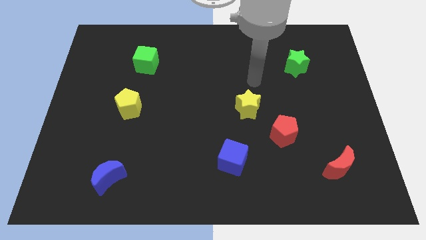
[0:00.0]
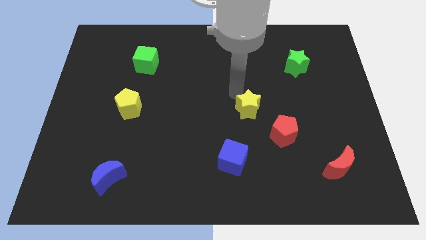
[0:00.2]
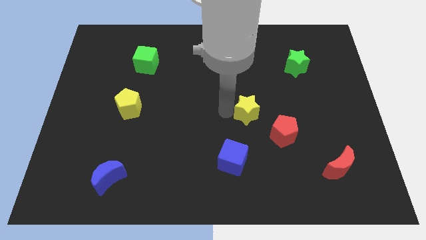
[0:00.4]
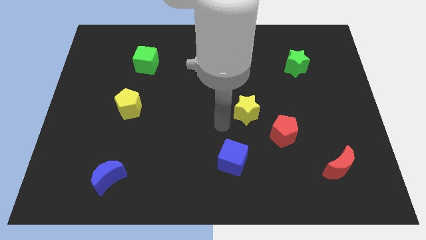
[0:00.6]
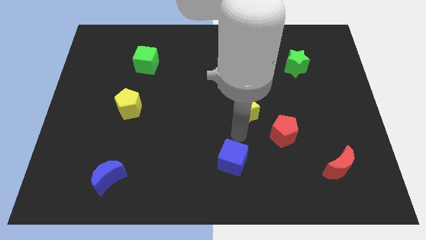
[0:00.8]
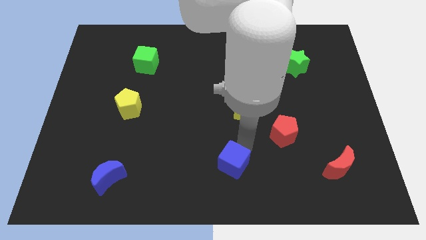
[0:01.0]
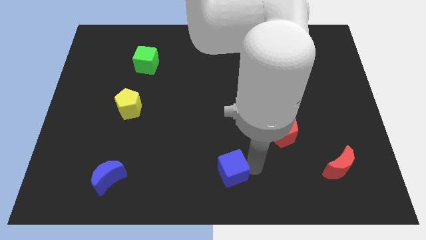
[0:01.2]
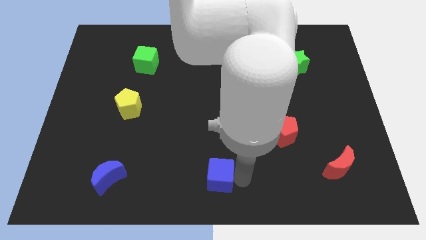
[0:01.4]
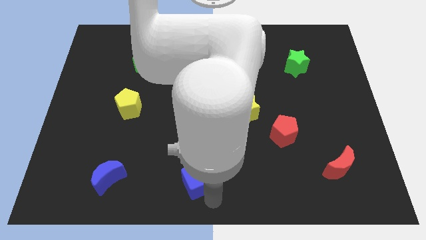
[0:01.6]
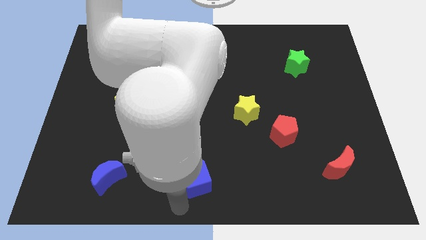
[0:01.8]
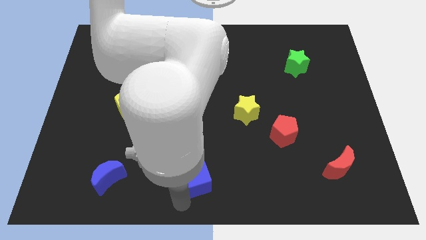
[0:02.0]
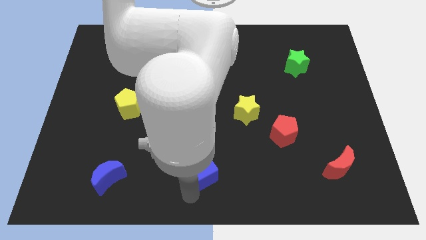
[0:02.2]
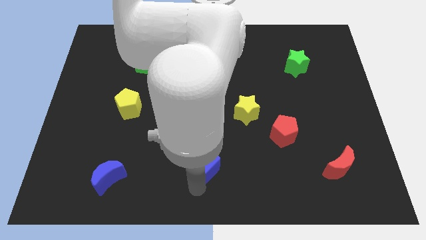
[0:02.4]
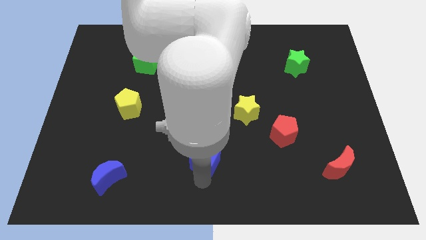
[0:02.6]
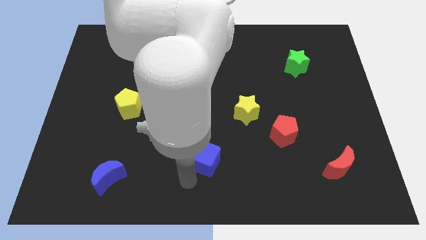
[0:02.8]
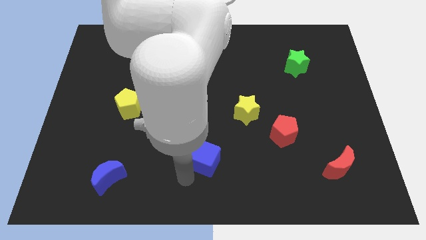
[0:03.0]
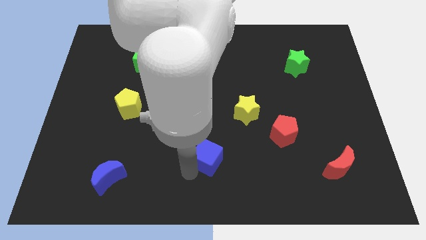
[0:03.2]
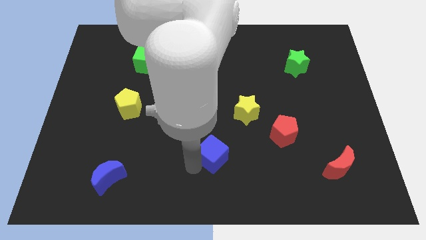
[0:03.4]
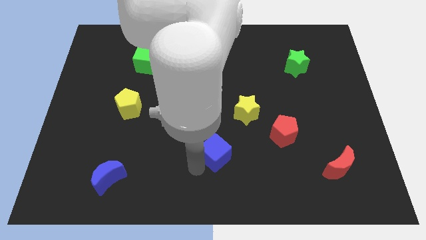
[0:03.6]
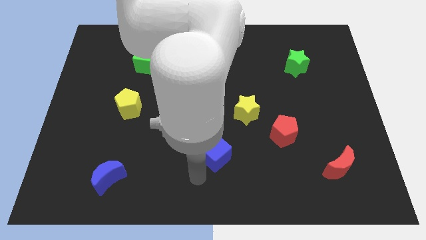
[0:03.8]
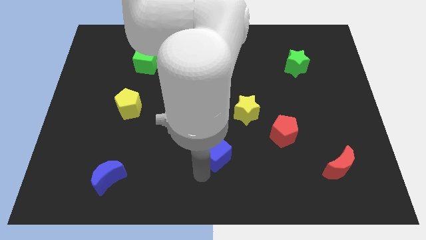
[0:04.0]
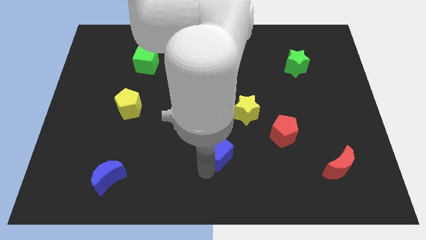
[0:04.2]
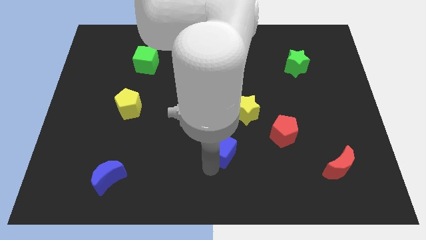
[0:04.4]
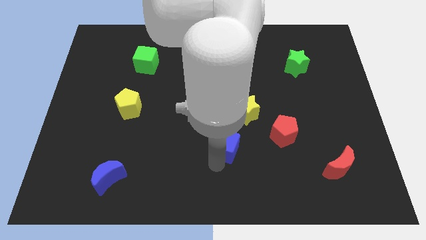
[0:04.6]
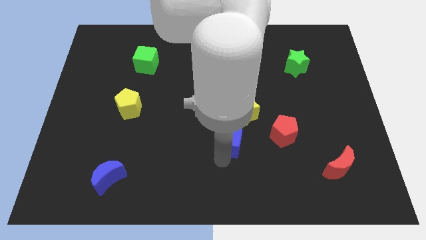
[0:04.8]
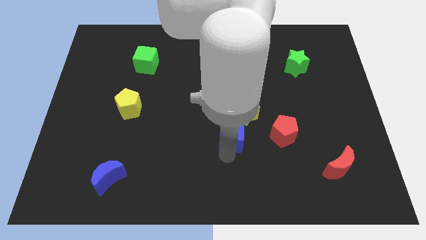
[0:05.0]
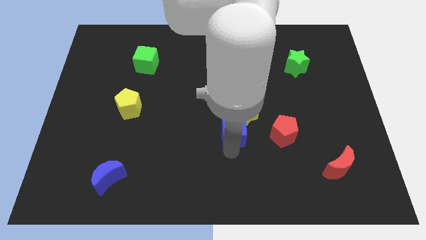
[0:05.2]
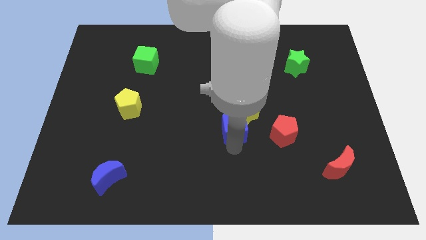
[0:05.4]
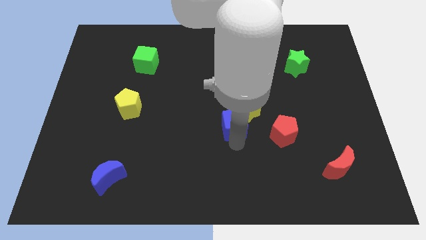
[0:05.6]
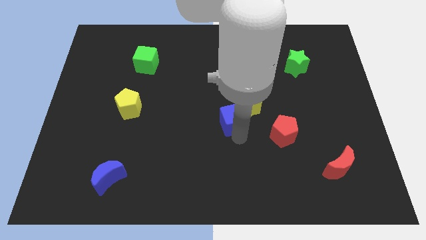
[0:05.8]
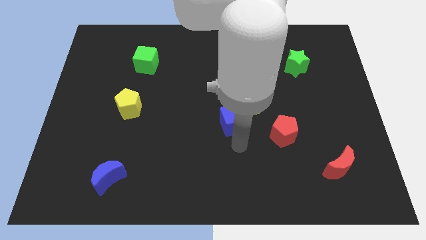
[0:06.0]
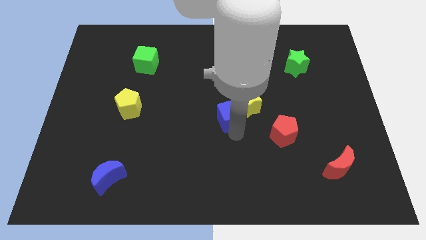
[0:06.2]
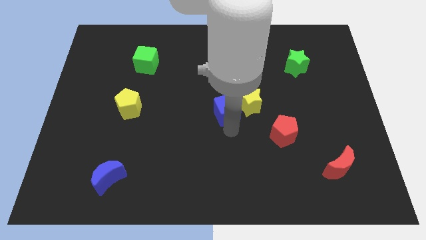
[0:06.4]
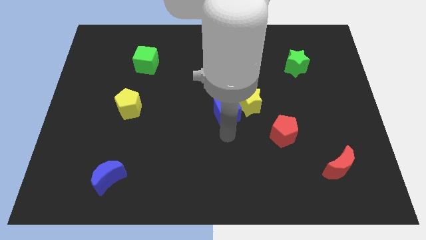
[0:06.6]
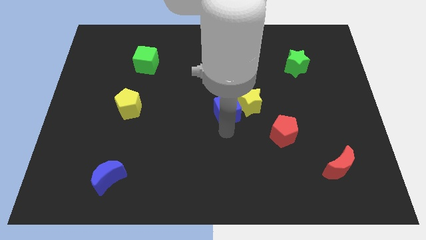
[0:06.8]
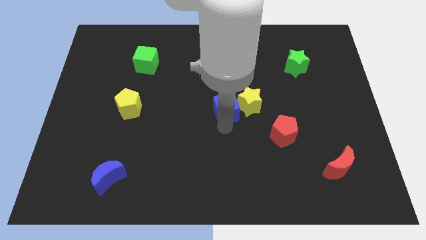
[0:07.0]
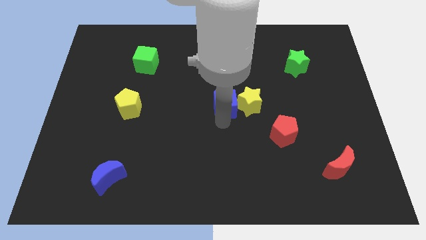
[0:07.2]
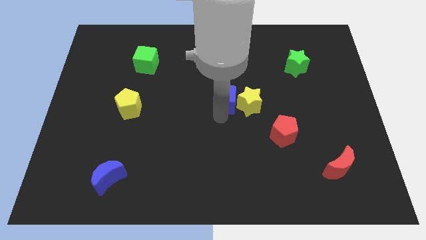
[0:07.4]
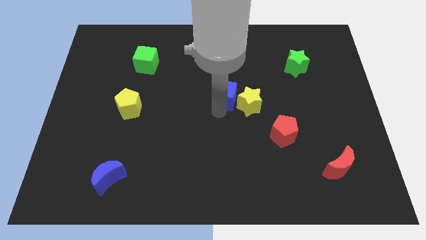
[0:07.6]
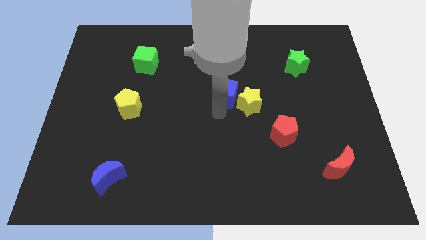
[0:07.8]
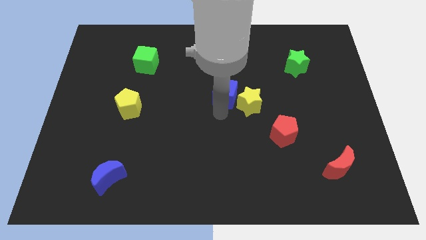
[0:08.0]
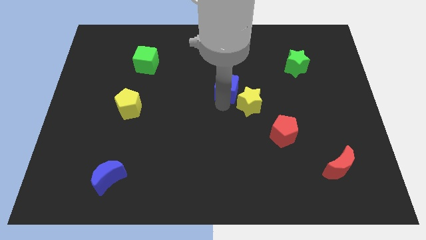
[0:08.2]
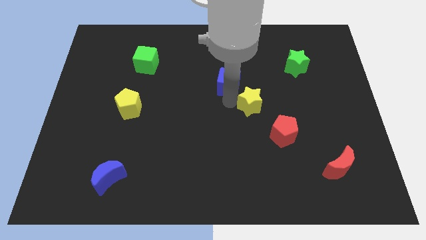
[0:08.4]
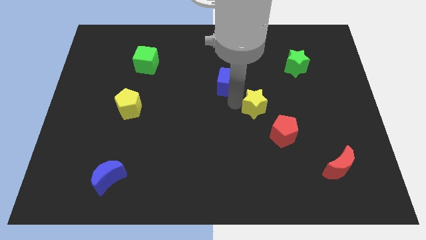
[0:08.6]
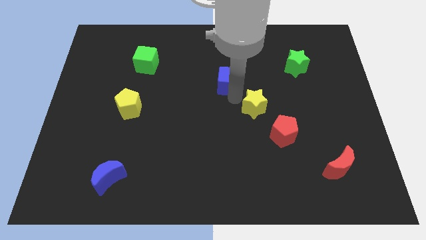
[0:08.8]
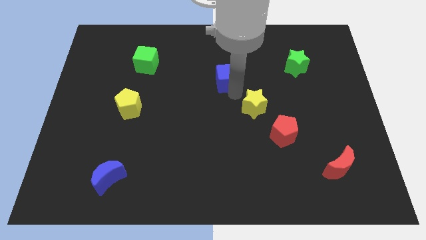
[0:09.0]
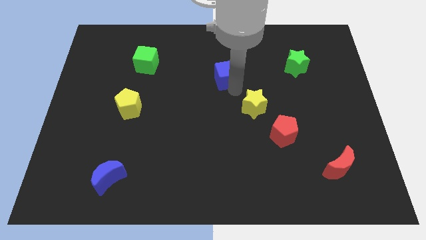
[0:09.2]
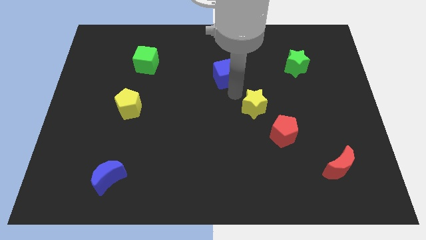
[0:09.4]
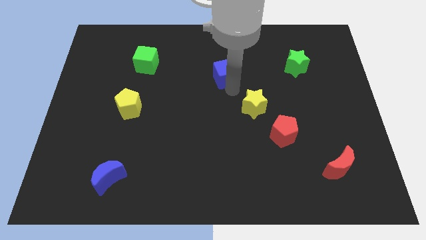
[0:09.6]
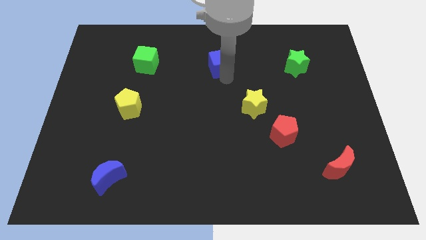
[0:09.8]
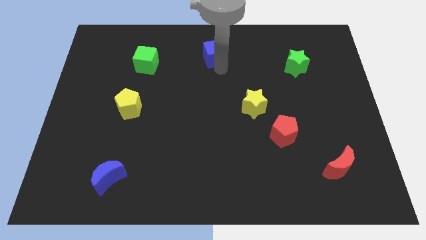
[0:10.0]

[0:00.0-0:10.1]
slide the blue cube to the top

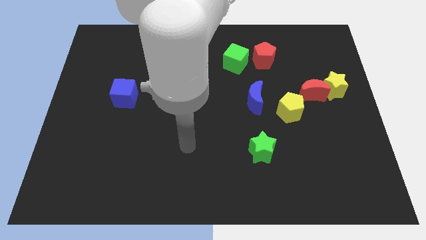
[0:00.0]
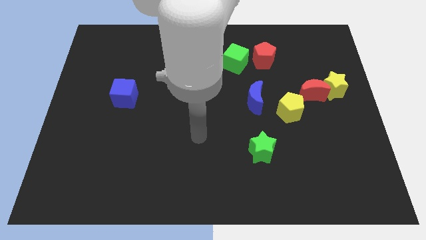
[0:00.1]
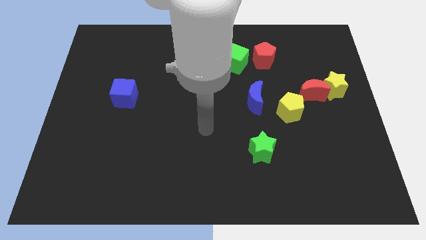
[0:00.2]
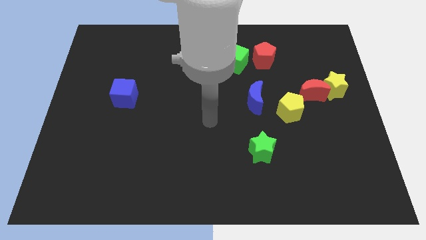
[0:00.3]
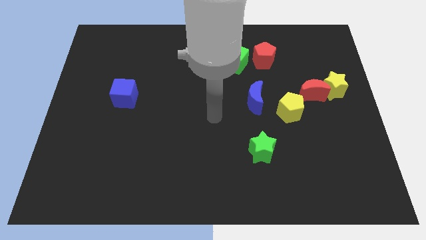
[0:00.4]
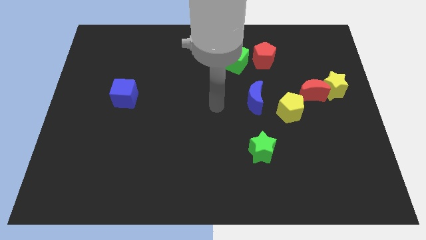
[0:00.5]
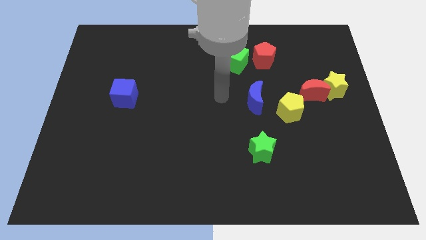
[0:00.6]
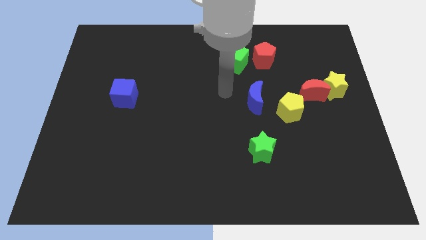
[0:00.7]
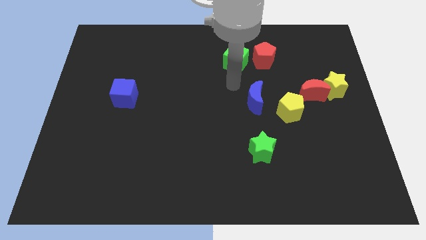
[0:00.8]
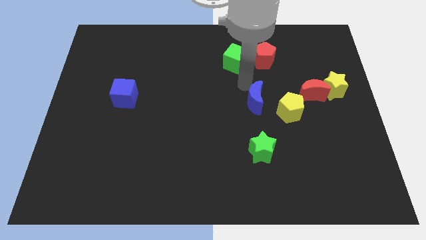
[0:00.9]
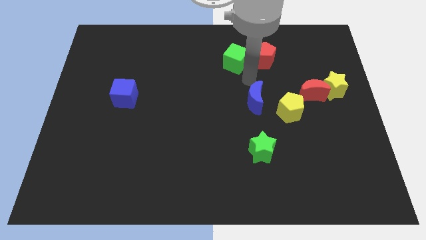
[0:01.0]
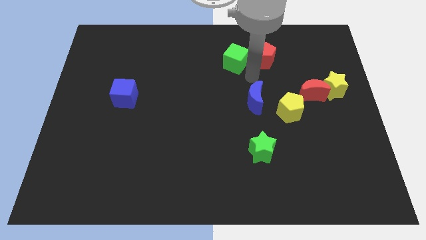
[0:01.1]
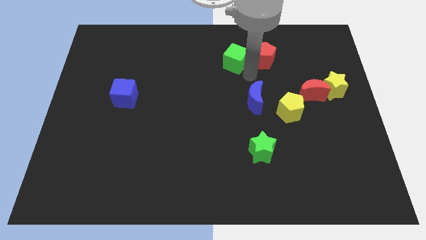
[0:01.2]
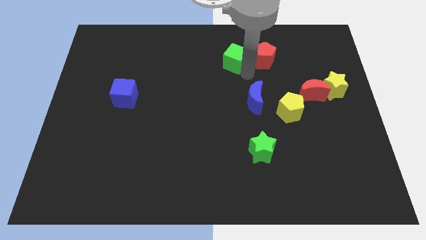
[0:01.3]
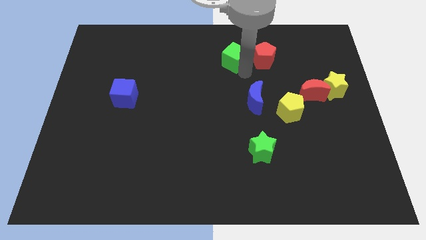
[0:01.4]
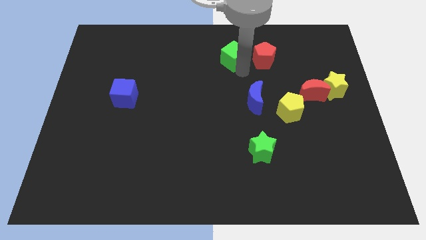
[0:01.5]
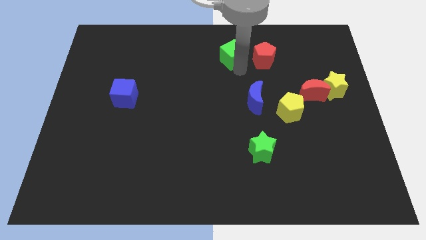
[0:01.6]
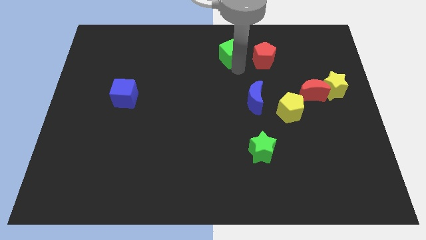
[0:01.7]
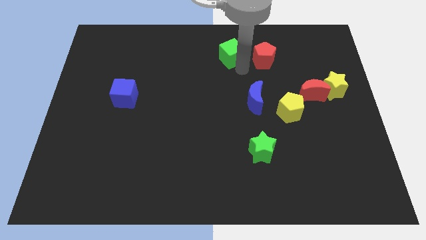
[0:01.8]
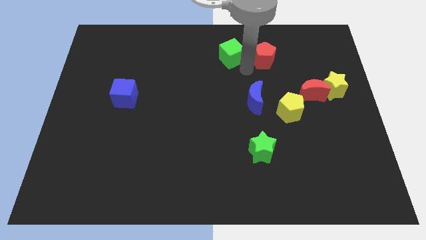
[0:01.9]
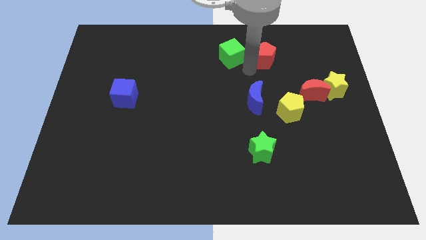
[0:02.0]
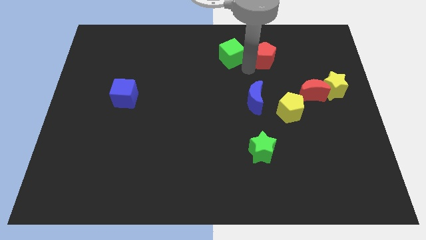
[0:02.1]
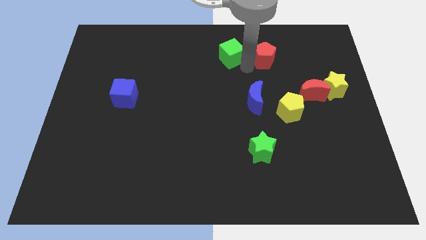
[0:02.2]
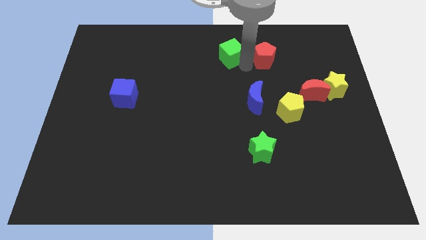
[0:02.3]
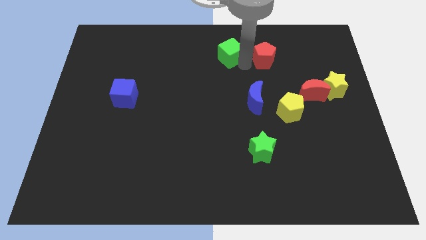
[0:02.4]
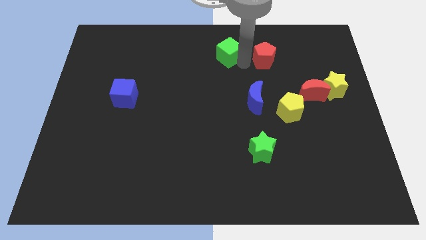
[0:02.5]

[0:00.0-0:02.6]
move the green cube to the top
